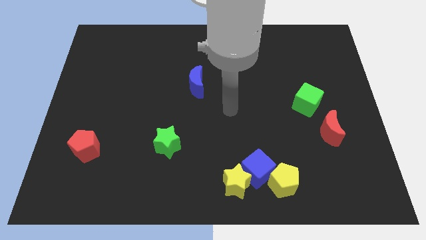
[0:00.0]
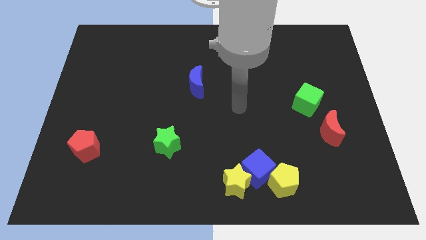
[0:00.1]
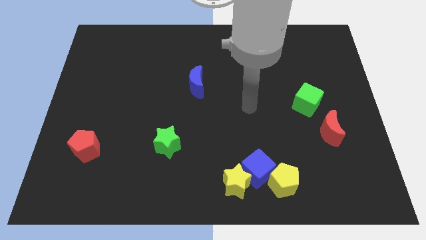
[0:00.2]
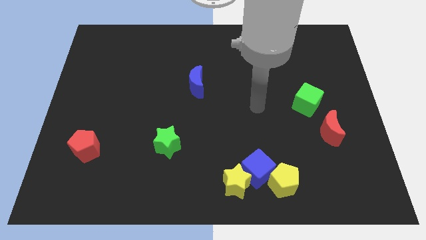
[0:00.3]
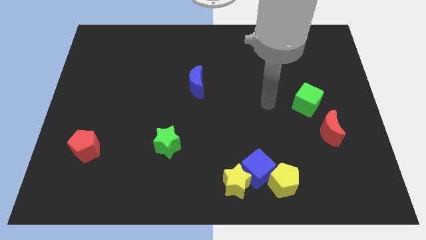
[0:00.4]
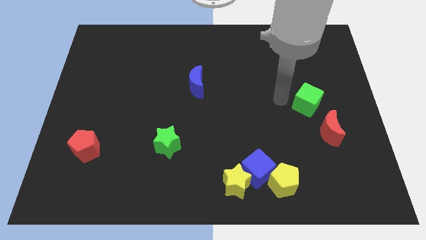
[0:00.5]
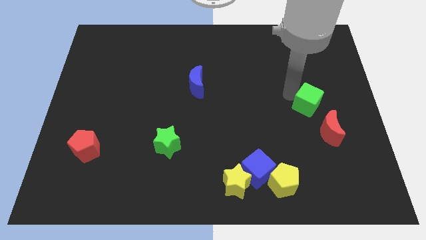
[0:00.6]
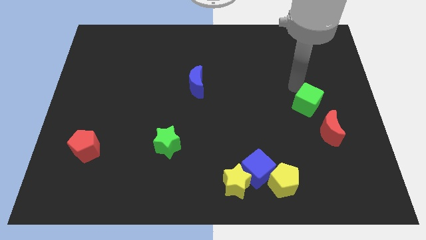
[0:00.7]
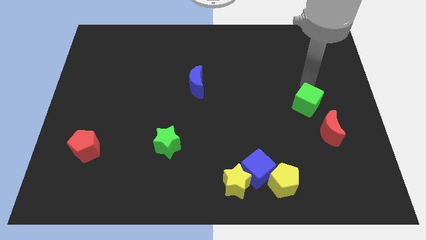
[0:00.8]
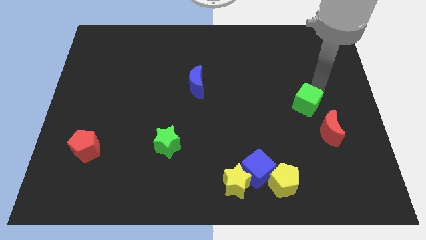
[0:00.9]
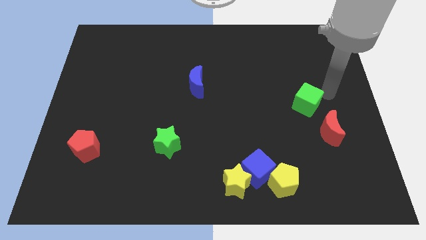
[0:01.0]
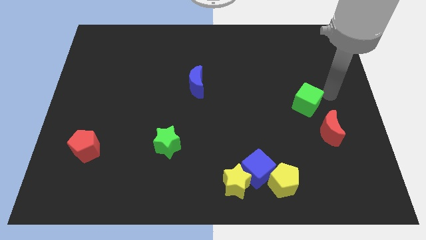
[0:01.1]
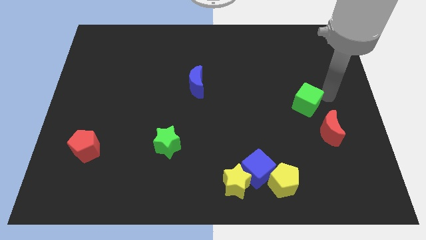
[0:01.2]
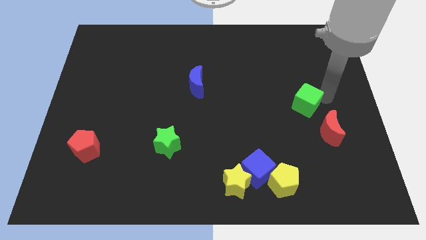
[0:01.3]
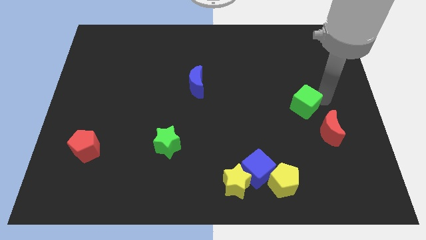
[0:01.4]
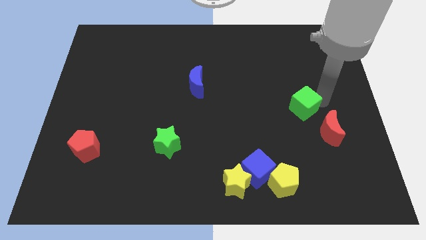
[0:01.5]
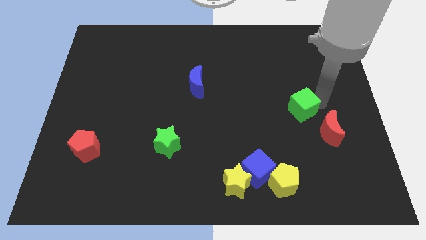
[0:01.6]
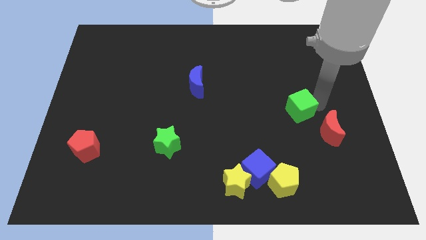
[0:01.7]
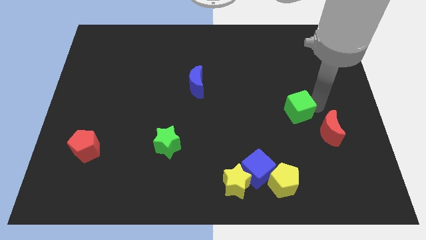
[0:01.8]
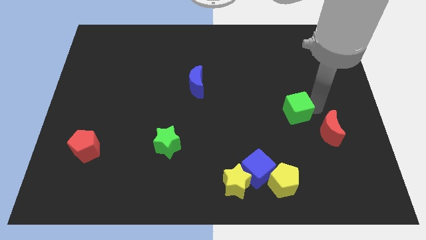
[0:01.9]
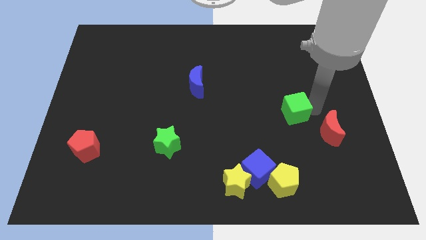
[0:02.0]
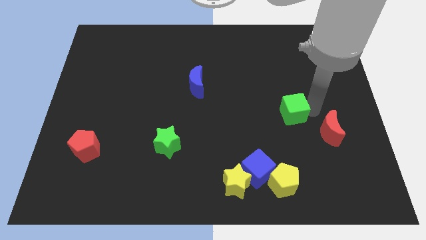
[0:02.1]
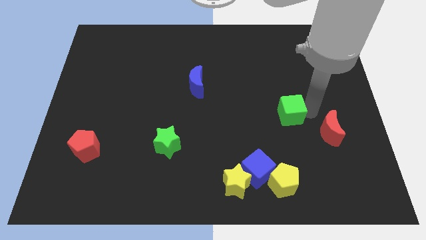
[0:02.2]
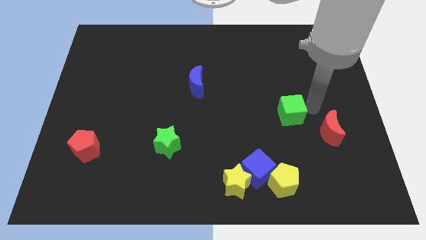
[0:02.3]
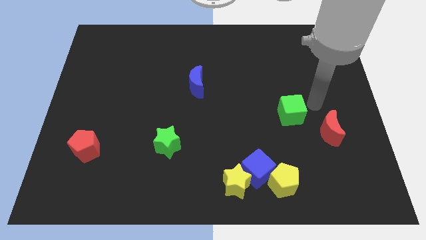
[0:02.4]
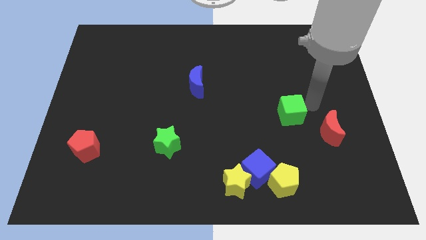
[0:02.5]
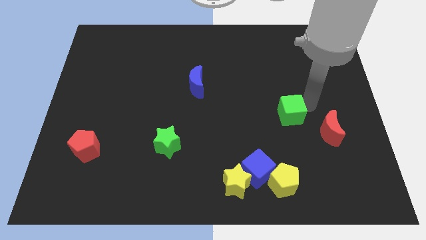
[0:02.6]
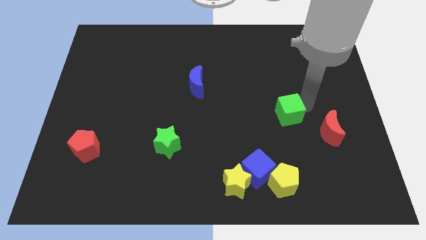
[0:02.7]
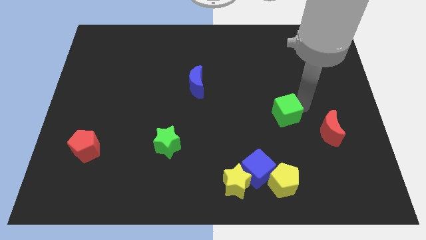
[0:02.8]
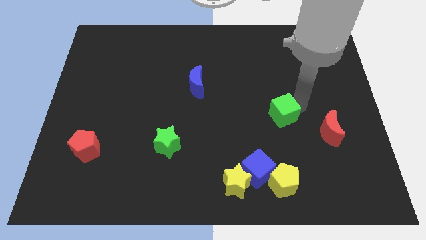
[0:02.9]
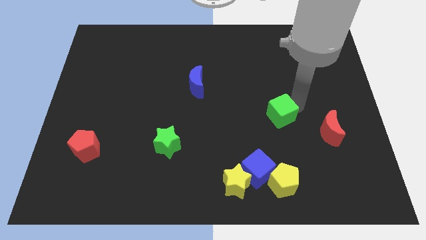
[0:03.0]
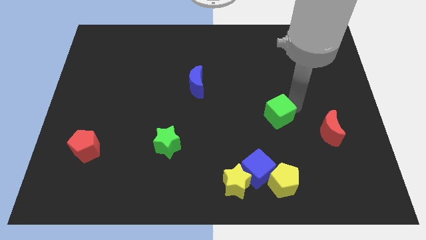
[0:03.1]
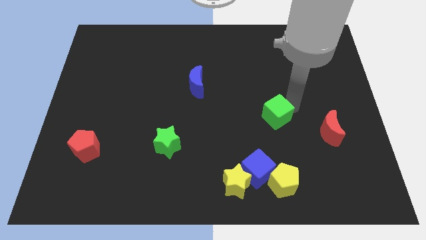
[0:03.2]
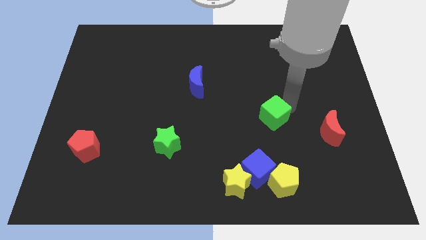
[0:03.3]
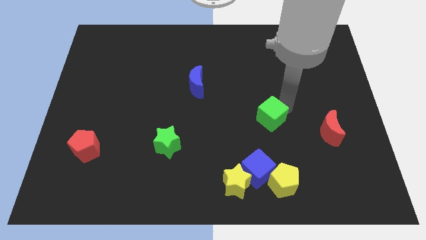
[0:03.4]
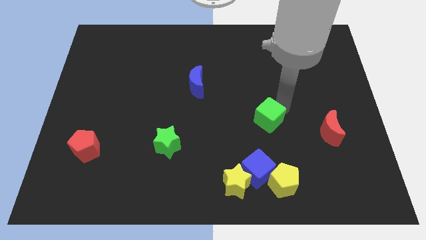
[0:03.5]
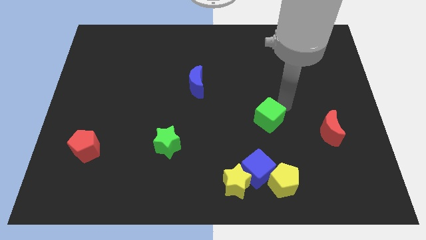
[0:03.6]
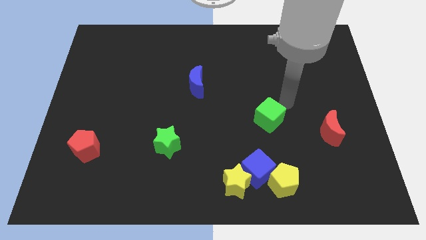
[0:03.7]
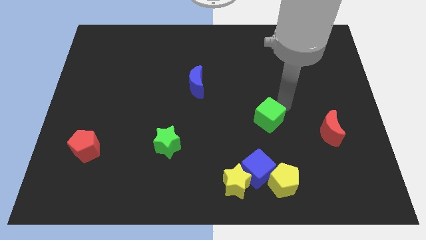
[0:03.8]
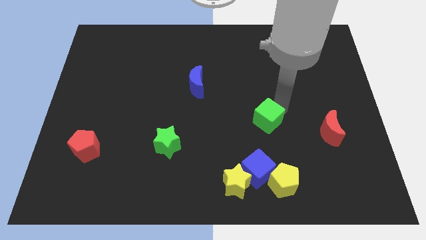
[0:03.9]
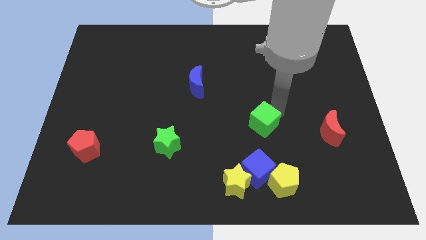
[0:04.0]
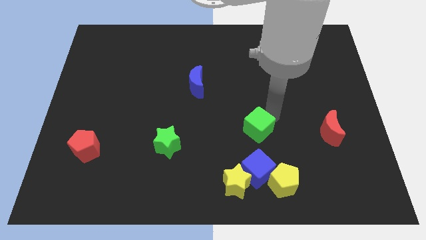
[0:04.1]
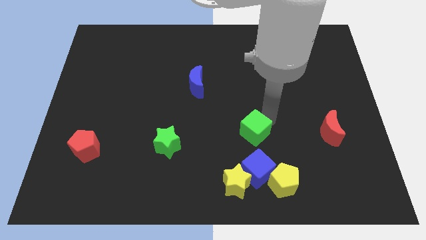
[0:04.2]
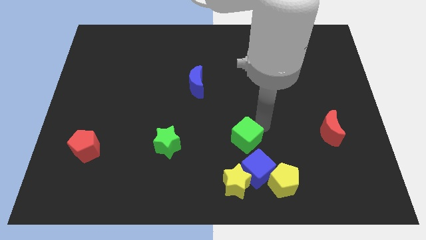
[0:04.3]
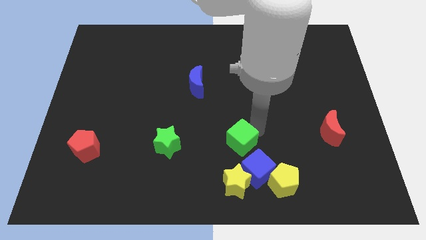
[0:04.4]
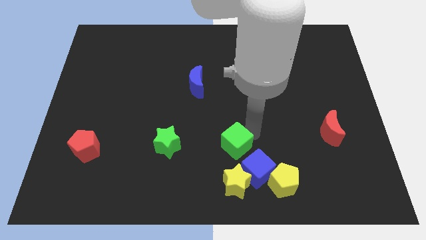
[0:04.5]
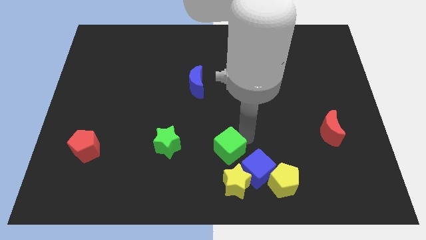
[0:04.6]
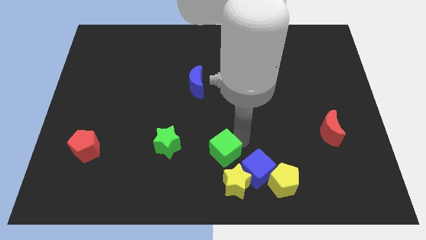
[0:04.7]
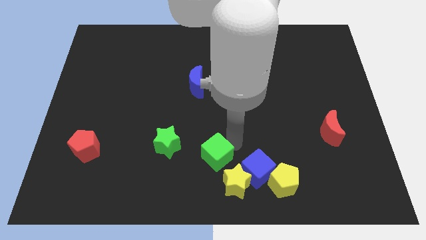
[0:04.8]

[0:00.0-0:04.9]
slide the green cube to the bottom side
